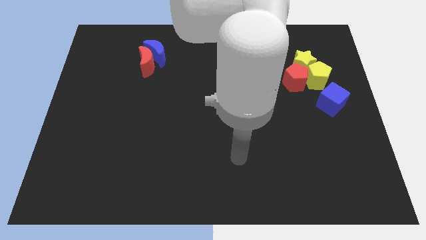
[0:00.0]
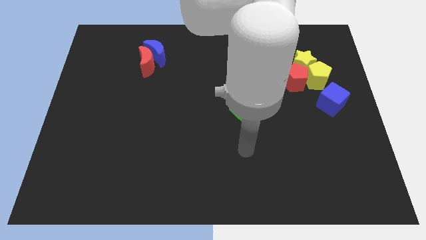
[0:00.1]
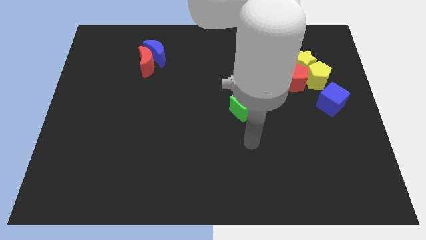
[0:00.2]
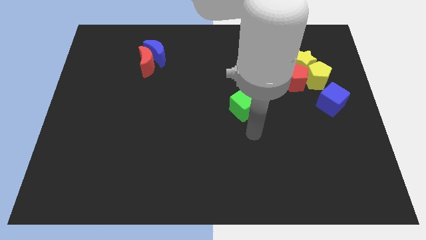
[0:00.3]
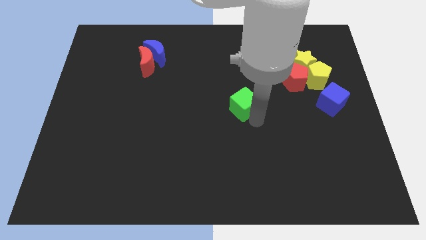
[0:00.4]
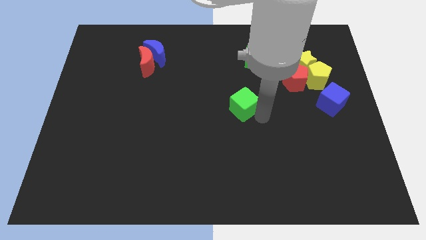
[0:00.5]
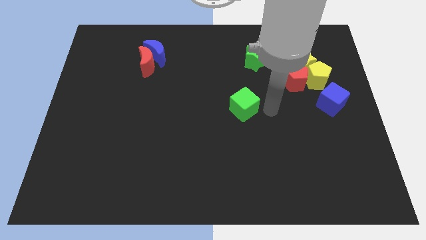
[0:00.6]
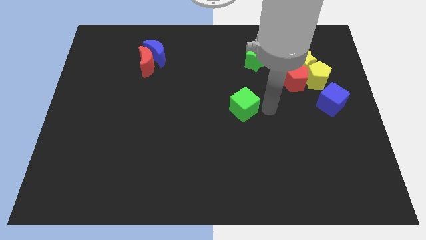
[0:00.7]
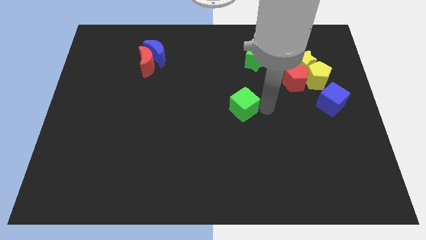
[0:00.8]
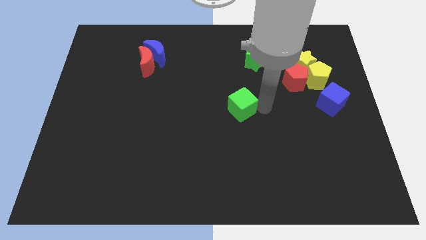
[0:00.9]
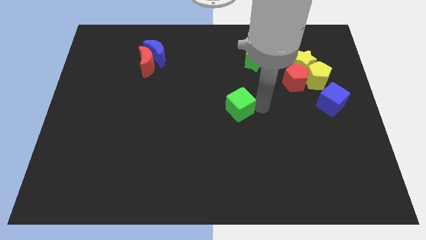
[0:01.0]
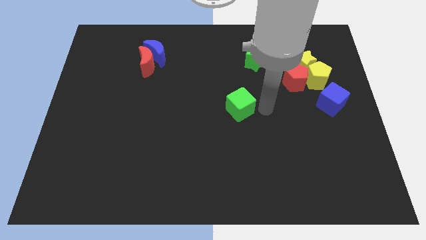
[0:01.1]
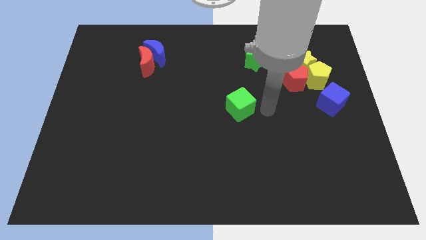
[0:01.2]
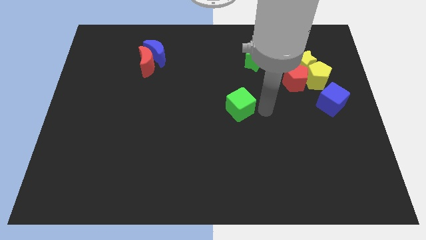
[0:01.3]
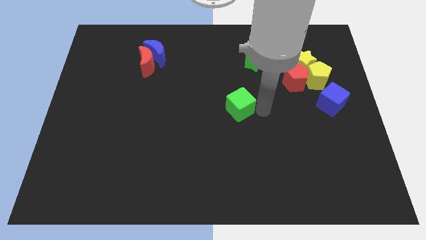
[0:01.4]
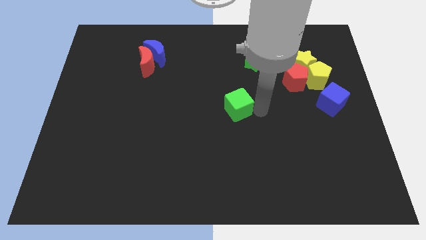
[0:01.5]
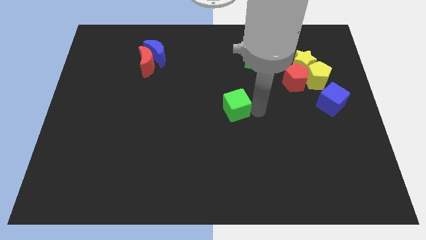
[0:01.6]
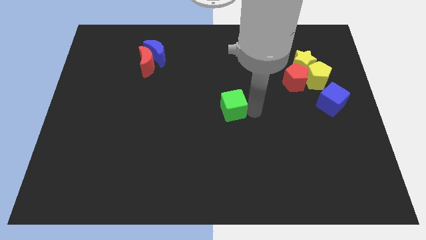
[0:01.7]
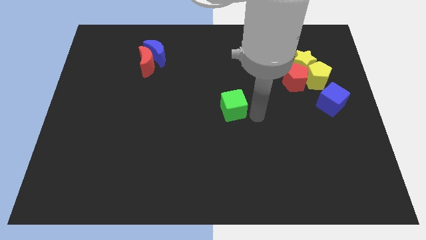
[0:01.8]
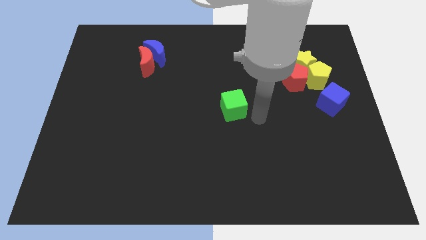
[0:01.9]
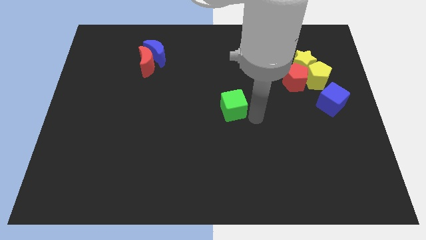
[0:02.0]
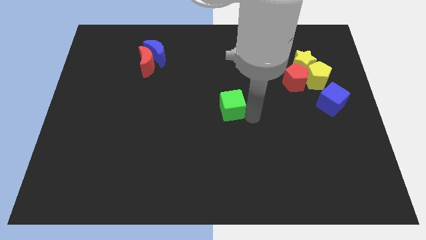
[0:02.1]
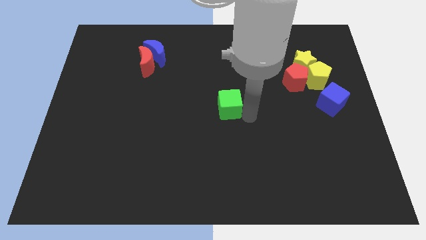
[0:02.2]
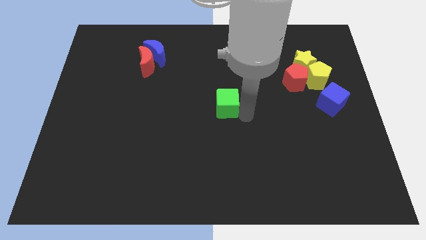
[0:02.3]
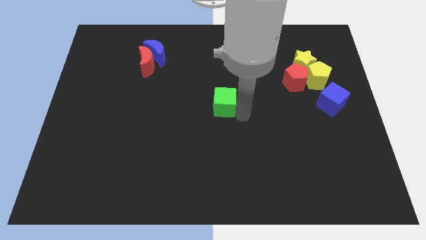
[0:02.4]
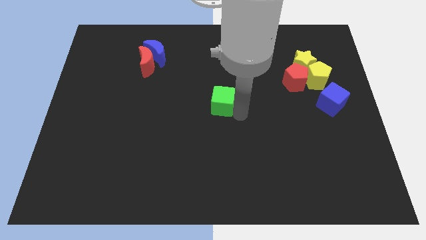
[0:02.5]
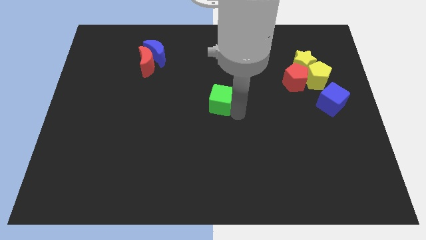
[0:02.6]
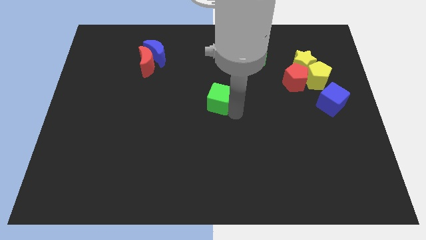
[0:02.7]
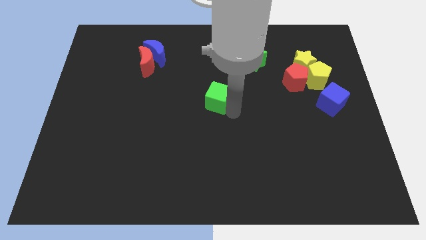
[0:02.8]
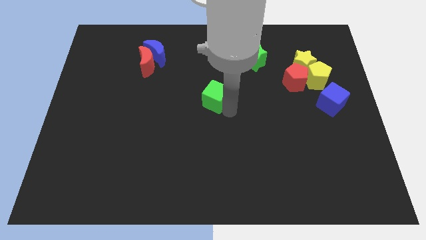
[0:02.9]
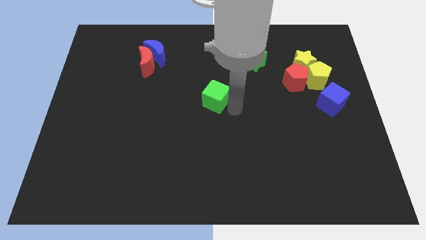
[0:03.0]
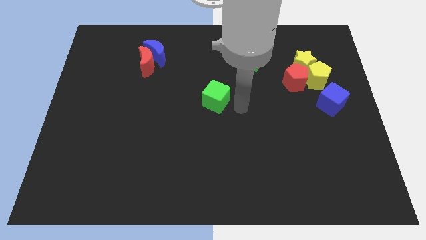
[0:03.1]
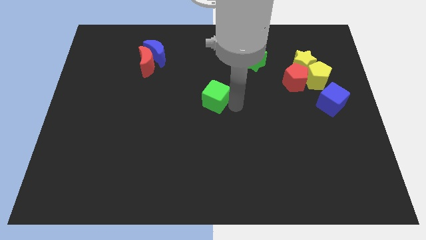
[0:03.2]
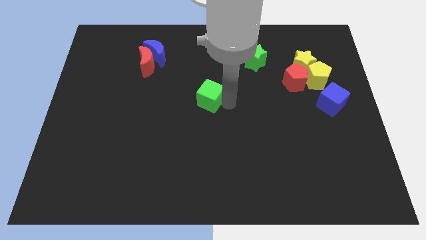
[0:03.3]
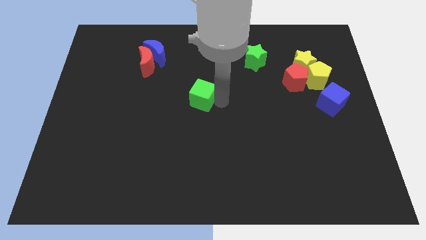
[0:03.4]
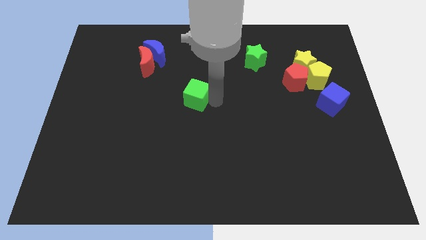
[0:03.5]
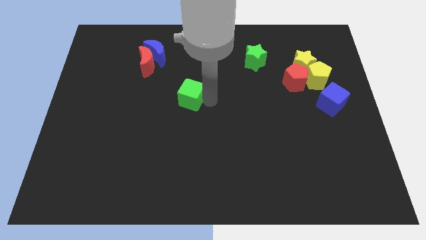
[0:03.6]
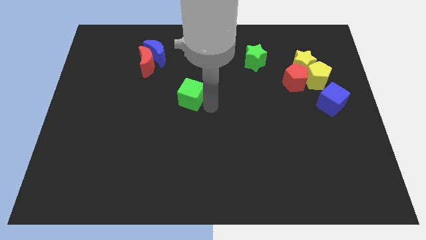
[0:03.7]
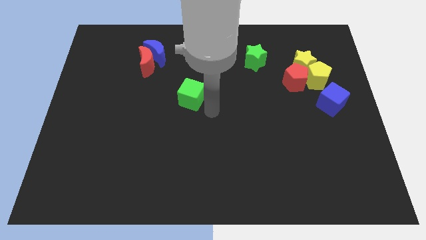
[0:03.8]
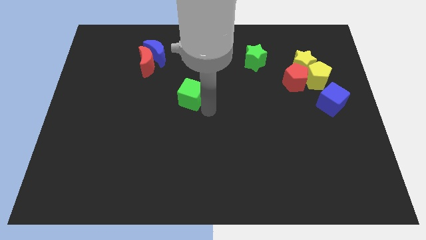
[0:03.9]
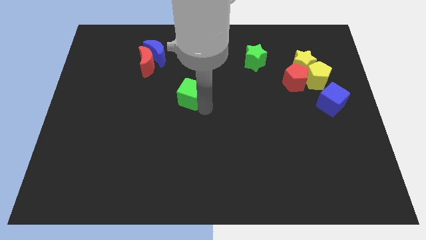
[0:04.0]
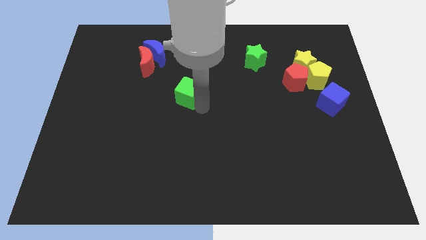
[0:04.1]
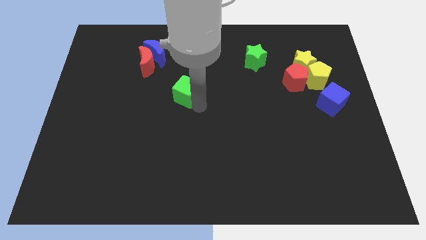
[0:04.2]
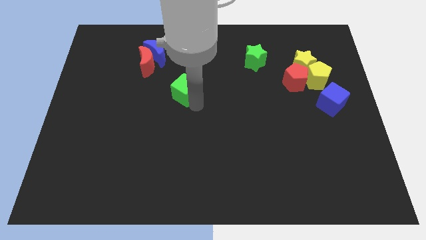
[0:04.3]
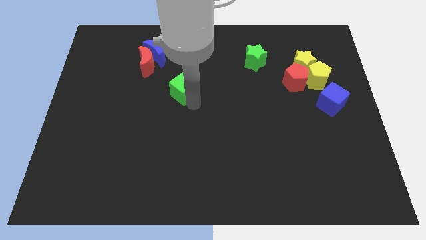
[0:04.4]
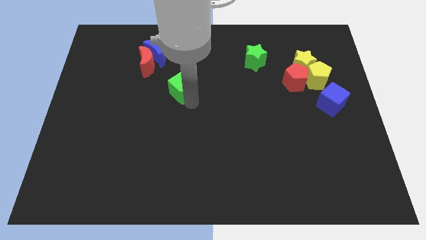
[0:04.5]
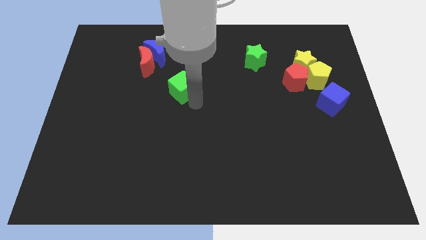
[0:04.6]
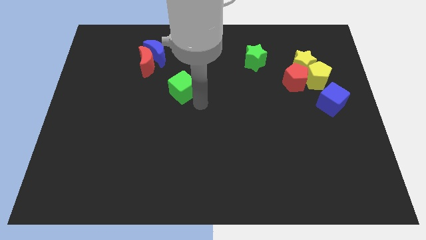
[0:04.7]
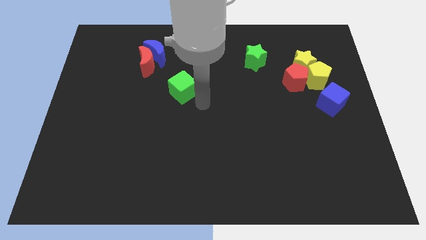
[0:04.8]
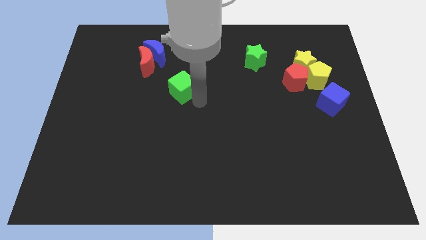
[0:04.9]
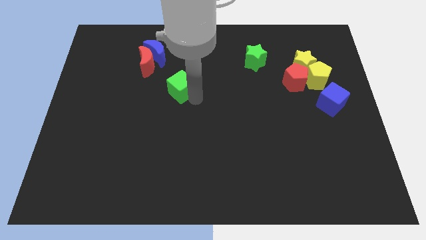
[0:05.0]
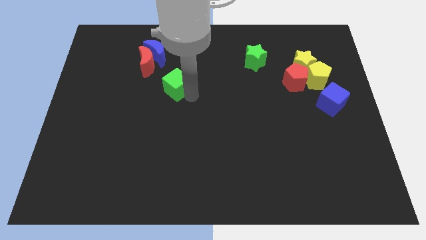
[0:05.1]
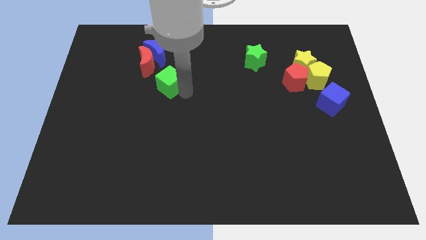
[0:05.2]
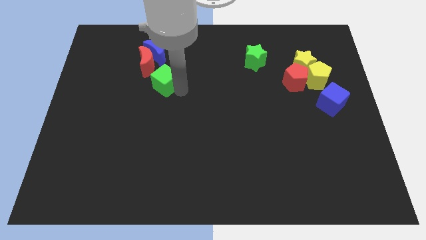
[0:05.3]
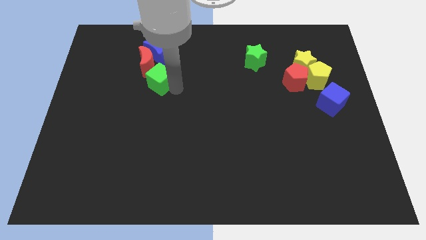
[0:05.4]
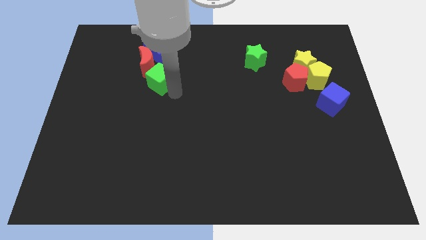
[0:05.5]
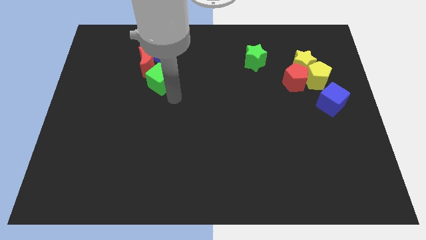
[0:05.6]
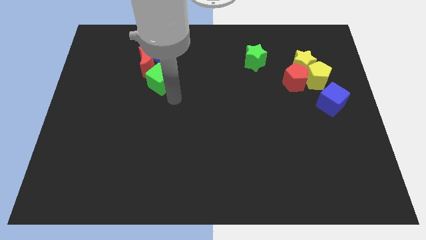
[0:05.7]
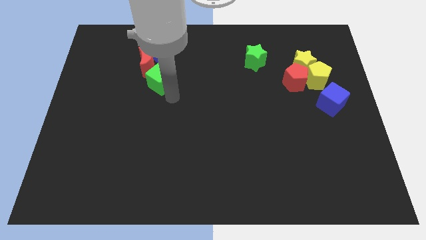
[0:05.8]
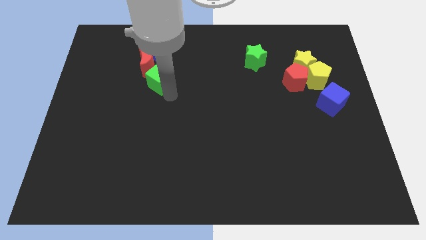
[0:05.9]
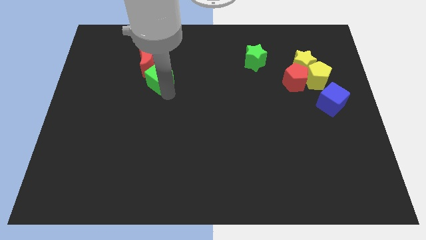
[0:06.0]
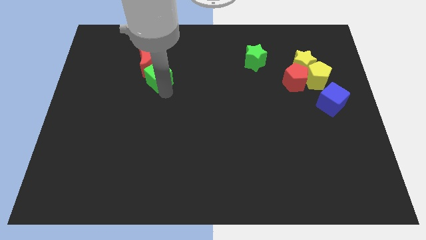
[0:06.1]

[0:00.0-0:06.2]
move the green cube close to the red moon

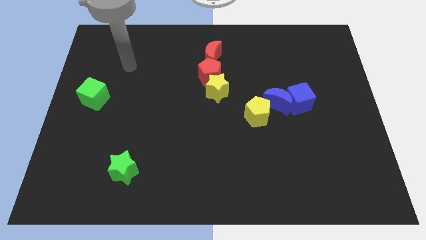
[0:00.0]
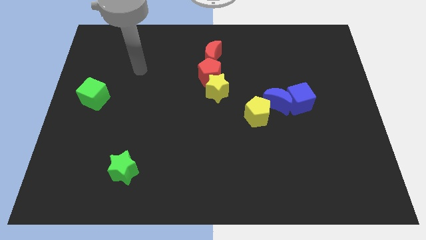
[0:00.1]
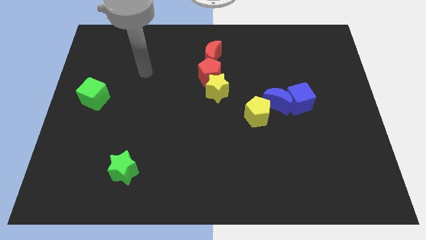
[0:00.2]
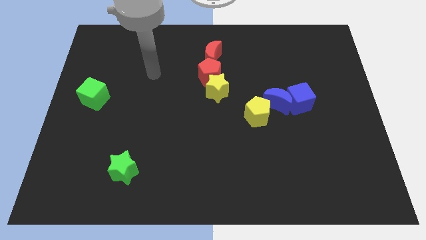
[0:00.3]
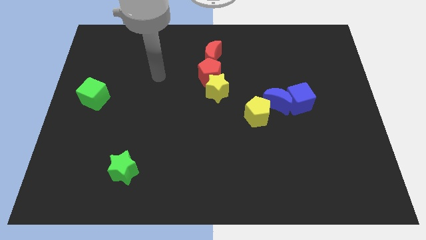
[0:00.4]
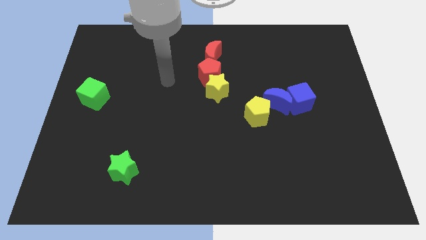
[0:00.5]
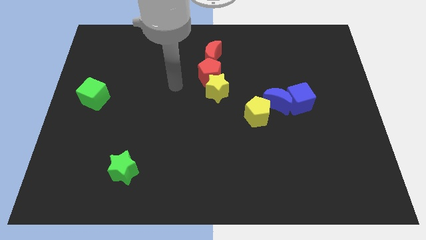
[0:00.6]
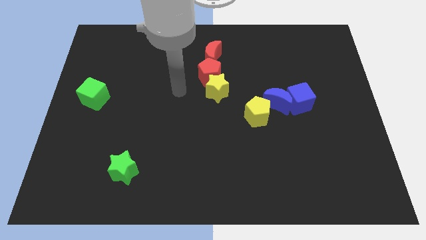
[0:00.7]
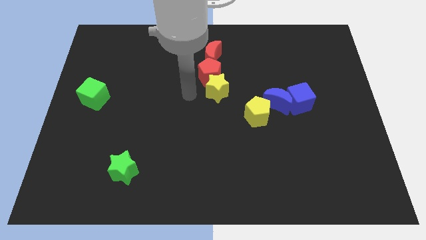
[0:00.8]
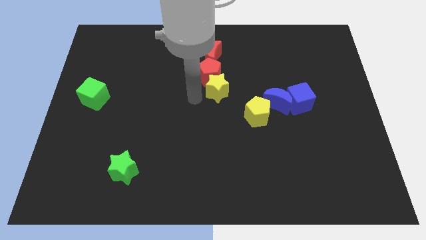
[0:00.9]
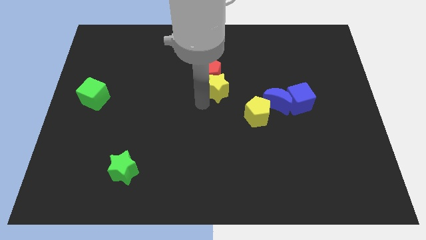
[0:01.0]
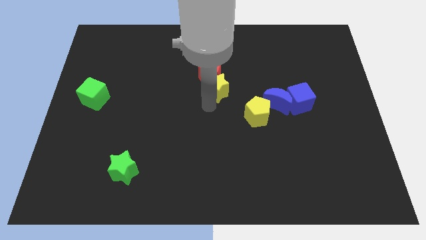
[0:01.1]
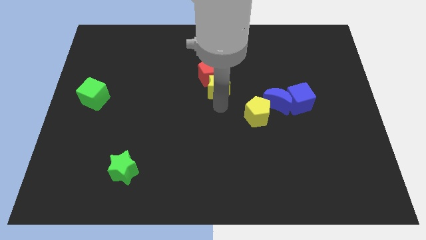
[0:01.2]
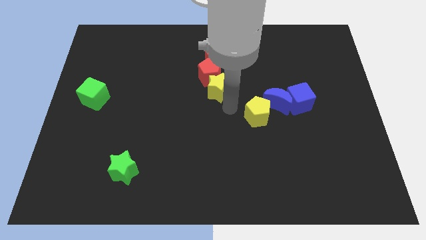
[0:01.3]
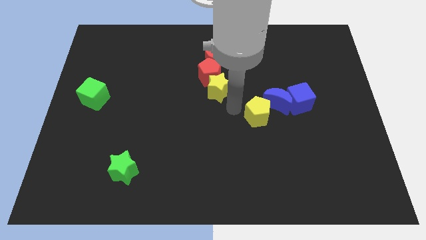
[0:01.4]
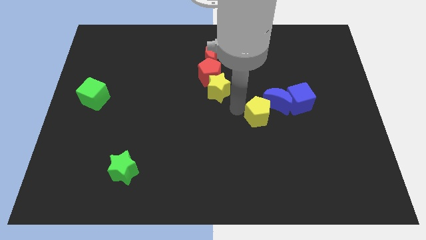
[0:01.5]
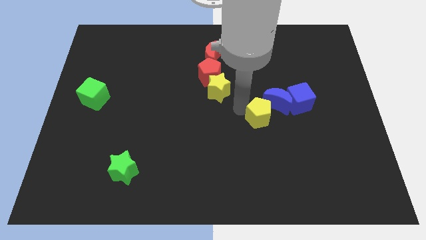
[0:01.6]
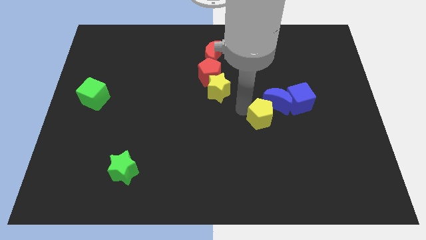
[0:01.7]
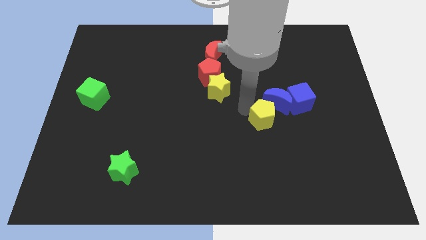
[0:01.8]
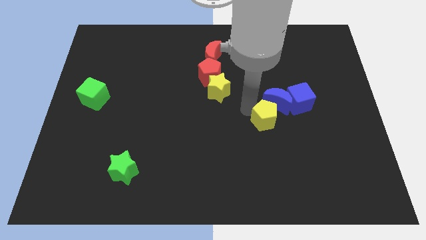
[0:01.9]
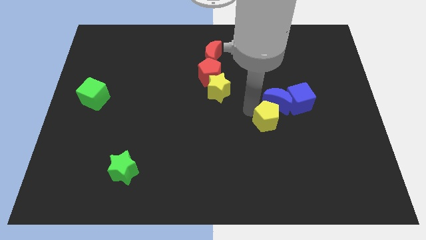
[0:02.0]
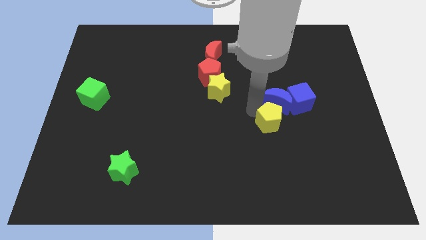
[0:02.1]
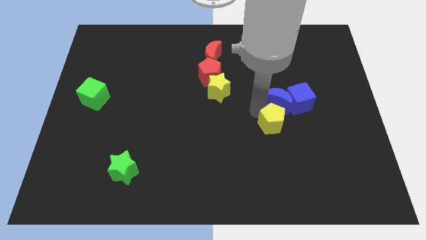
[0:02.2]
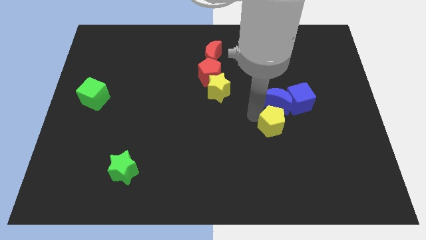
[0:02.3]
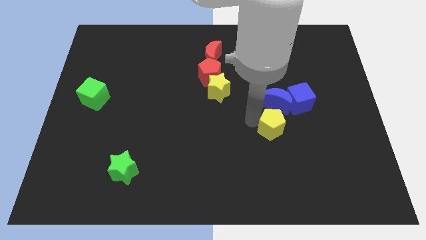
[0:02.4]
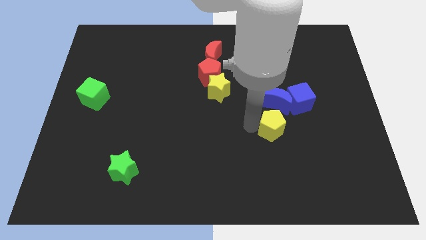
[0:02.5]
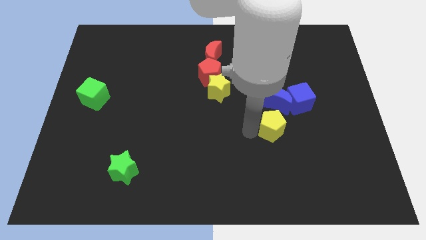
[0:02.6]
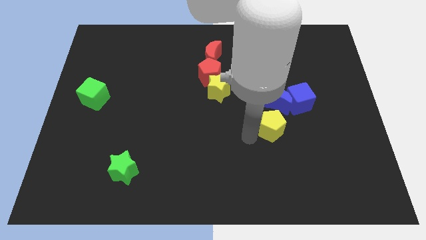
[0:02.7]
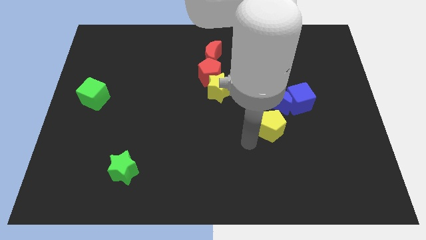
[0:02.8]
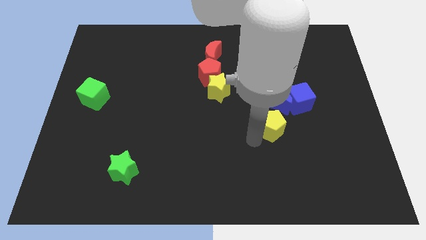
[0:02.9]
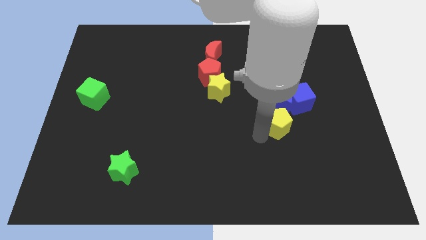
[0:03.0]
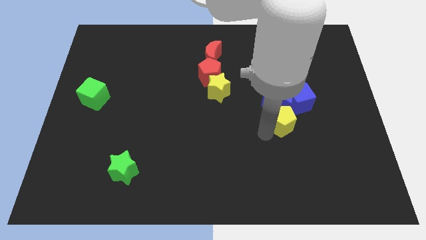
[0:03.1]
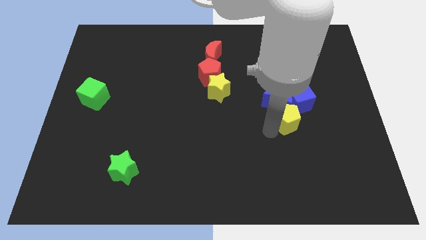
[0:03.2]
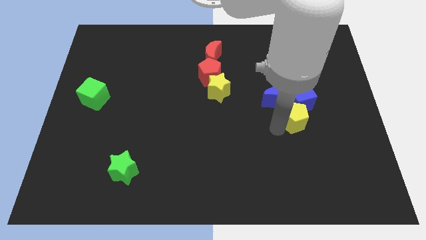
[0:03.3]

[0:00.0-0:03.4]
put the yellow pentagon towards the blue cube
